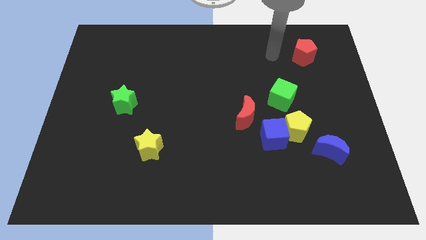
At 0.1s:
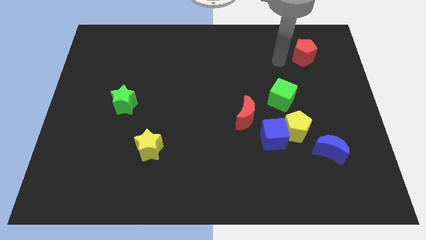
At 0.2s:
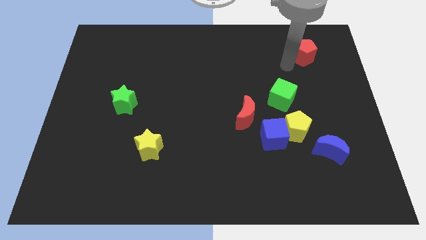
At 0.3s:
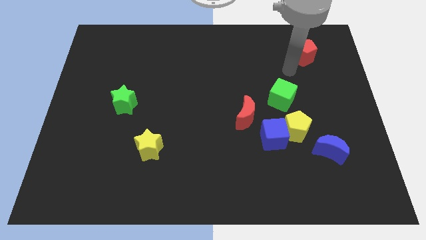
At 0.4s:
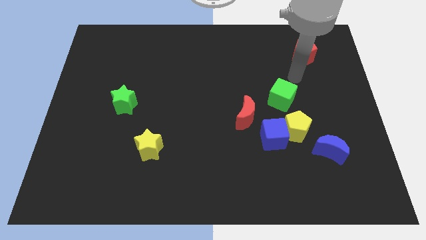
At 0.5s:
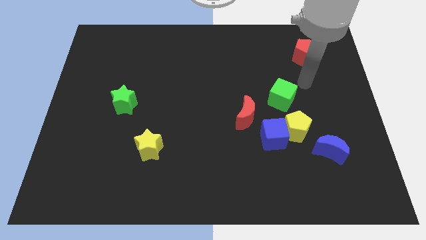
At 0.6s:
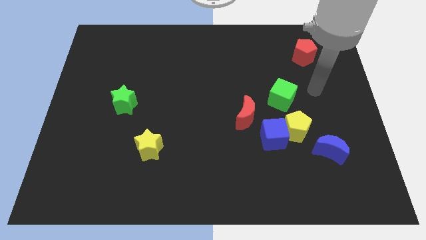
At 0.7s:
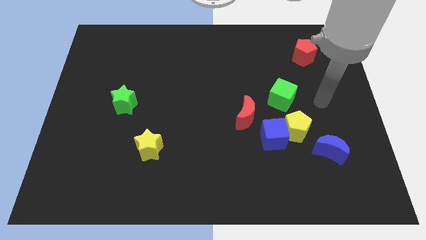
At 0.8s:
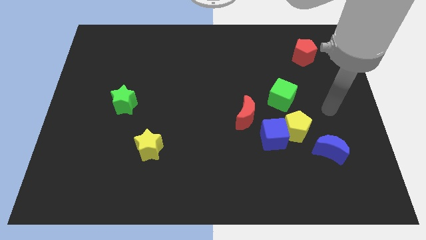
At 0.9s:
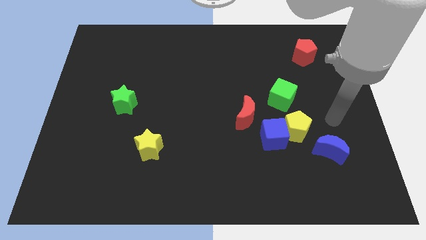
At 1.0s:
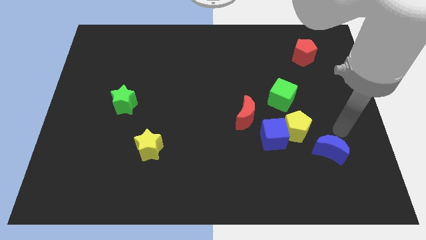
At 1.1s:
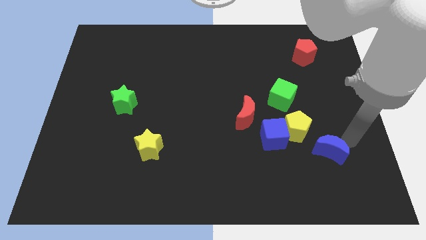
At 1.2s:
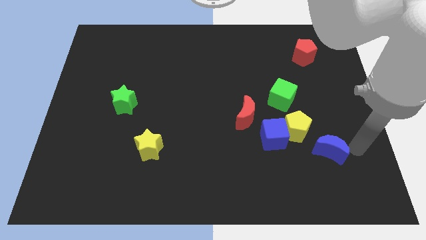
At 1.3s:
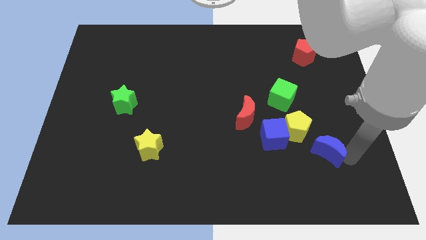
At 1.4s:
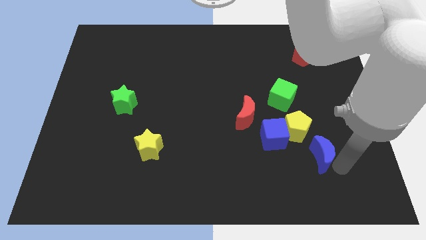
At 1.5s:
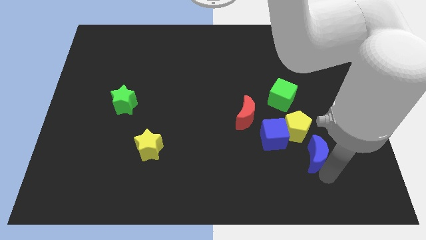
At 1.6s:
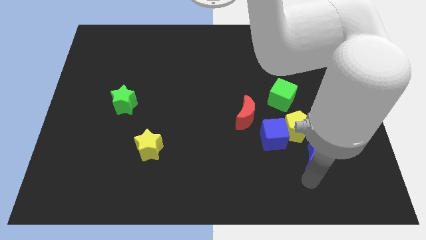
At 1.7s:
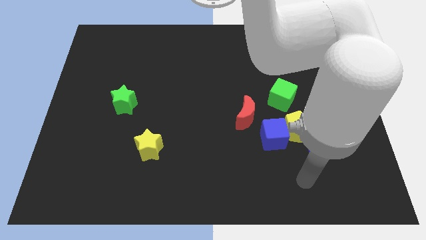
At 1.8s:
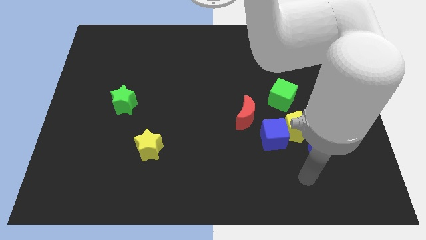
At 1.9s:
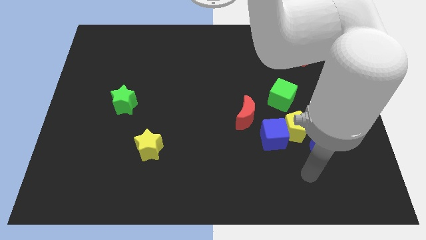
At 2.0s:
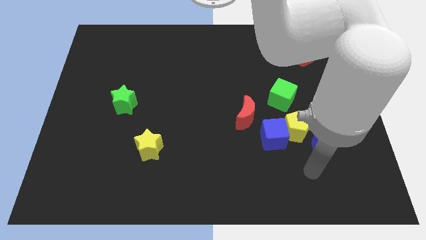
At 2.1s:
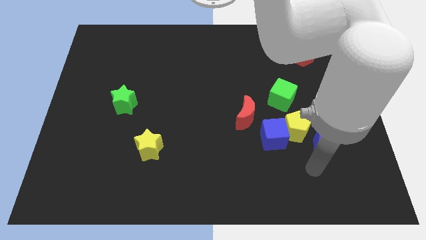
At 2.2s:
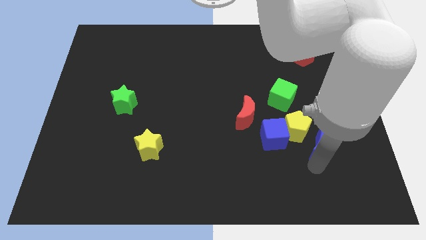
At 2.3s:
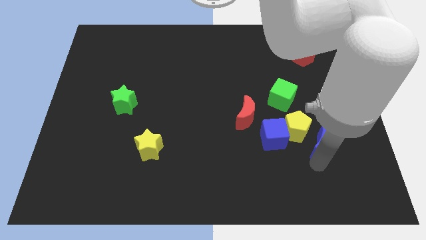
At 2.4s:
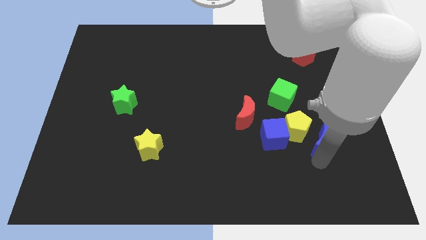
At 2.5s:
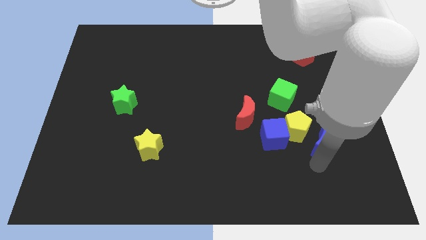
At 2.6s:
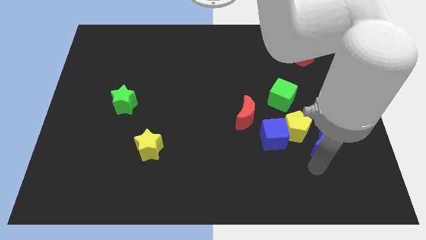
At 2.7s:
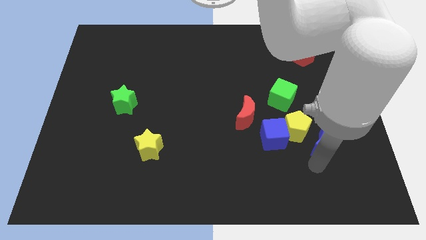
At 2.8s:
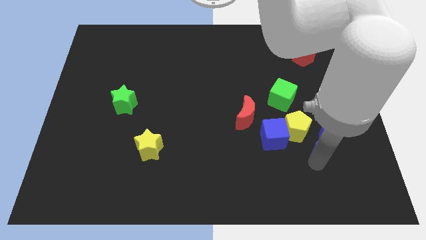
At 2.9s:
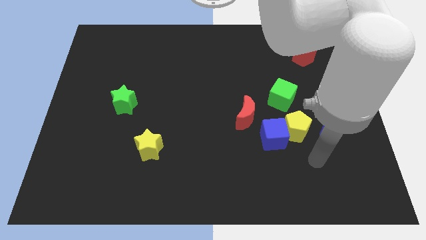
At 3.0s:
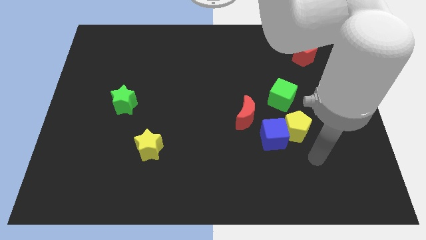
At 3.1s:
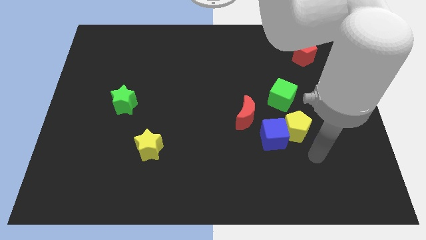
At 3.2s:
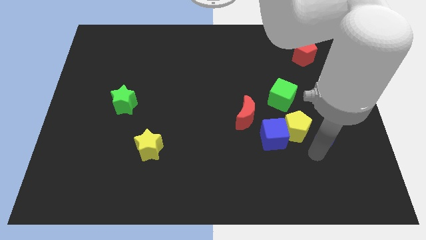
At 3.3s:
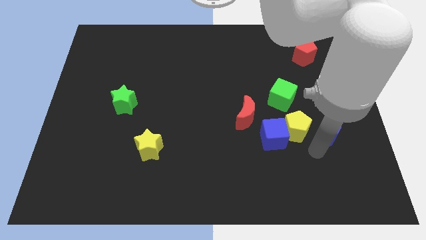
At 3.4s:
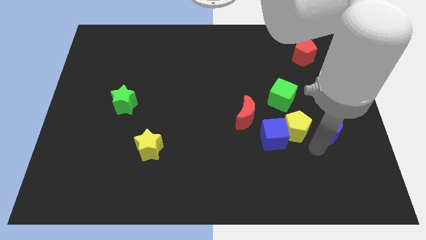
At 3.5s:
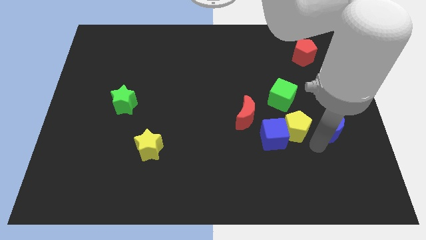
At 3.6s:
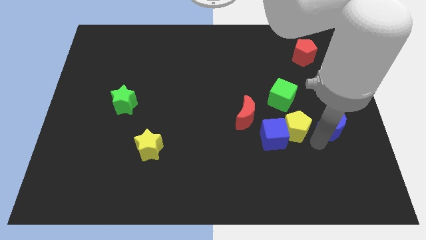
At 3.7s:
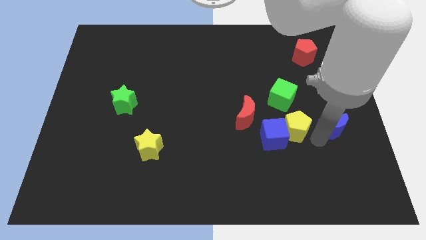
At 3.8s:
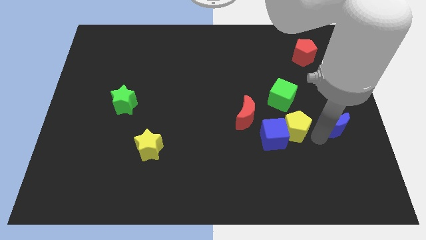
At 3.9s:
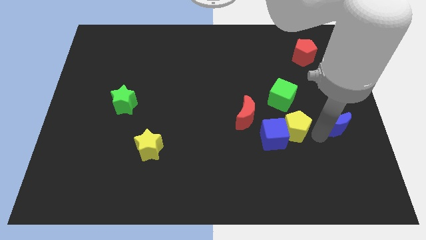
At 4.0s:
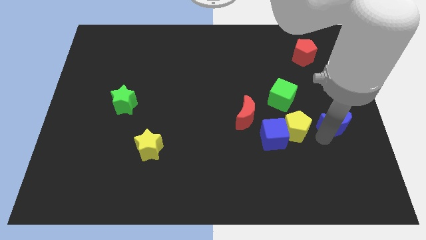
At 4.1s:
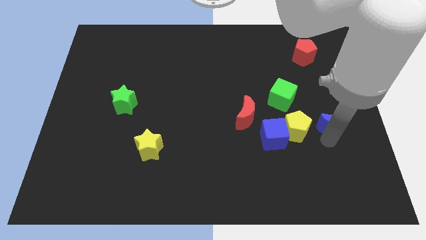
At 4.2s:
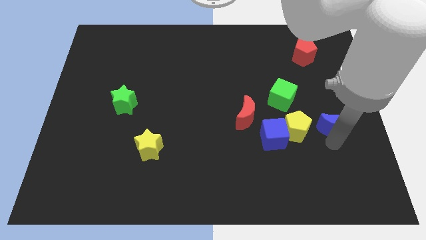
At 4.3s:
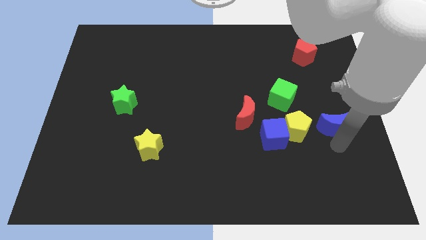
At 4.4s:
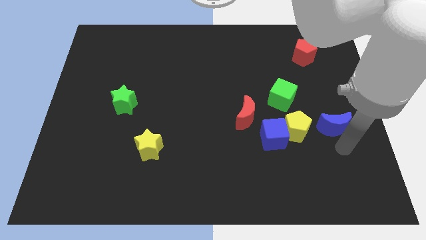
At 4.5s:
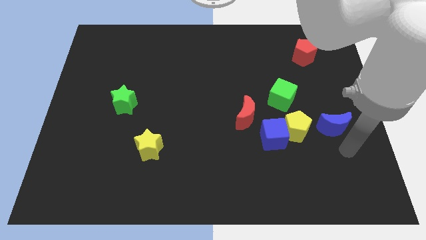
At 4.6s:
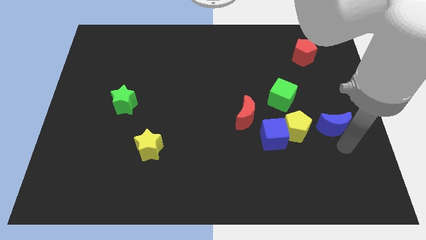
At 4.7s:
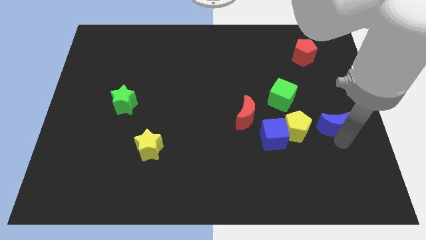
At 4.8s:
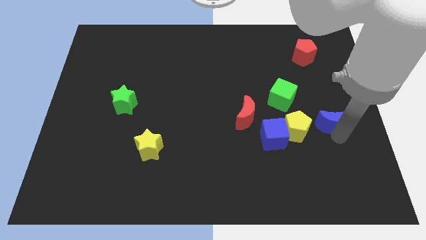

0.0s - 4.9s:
slide the blue moon up slightly

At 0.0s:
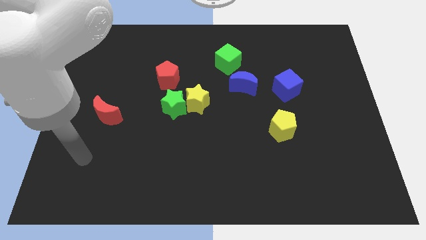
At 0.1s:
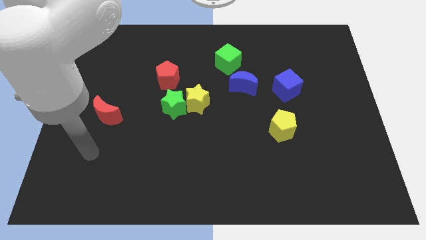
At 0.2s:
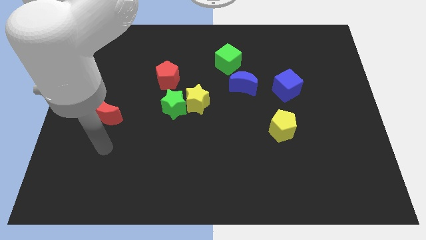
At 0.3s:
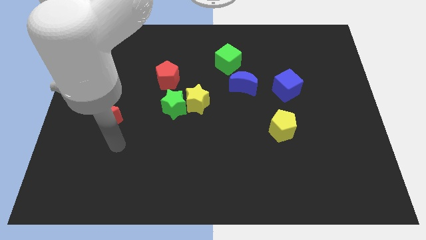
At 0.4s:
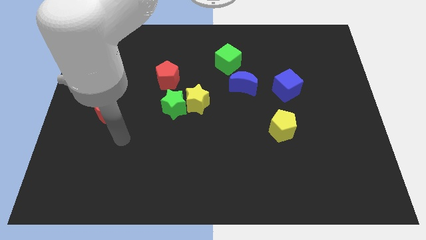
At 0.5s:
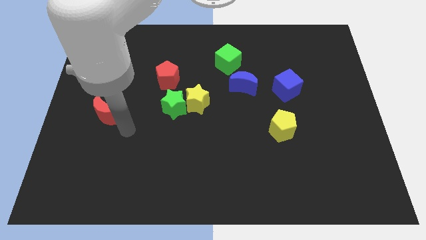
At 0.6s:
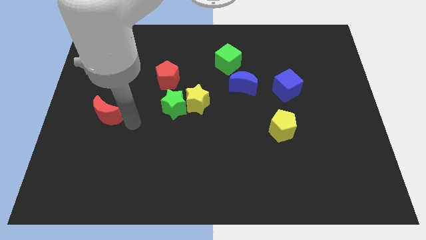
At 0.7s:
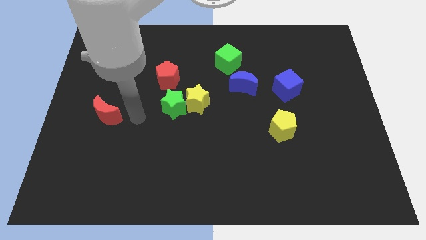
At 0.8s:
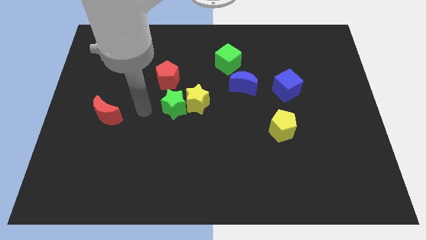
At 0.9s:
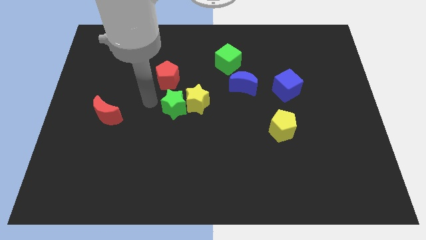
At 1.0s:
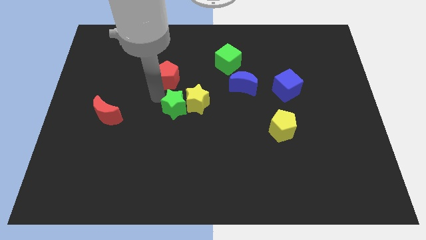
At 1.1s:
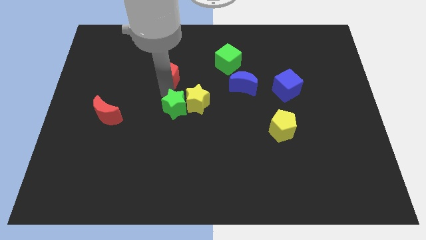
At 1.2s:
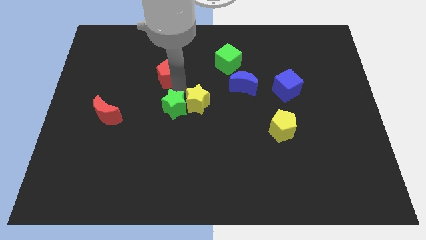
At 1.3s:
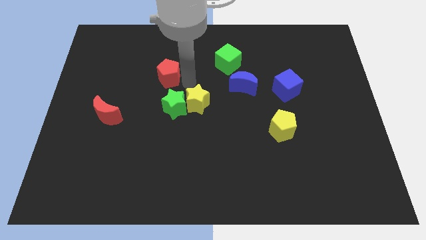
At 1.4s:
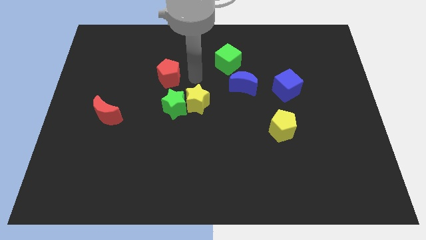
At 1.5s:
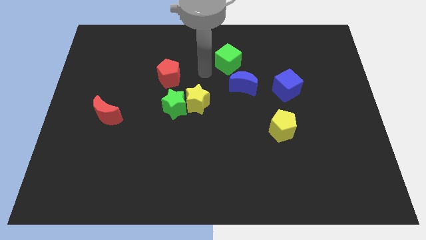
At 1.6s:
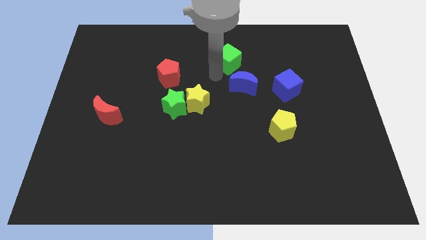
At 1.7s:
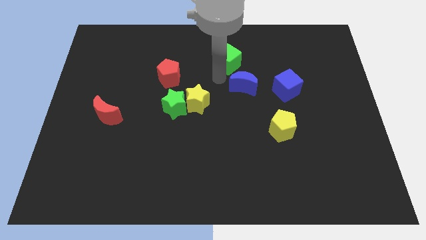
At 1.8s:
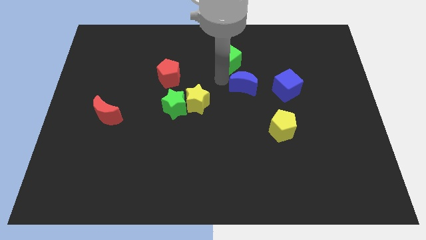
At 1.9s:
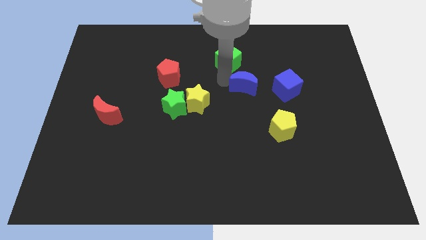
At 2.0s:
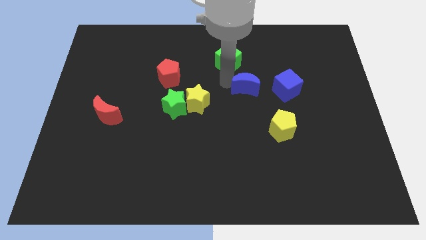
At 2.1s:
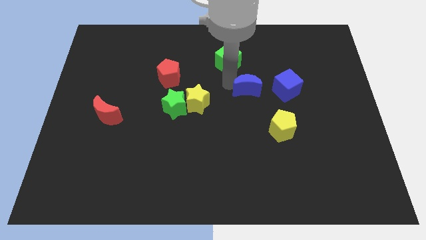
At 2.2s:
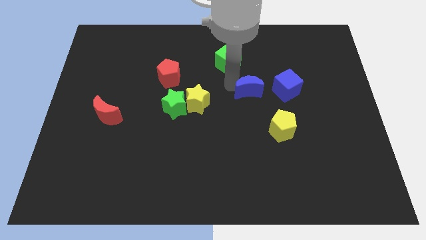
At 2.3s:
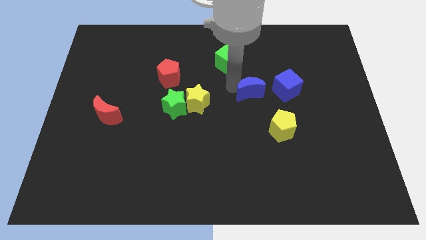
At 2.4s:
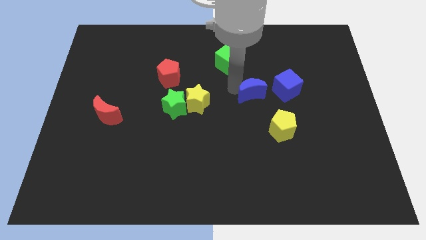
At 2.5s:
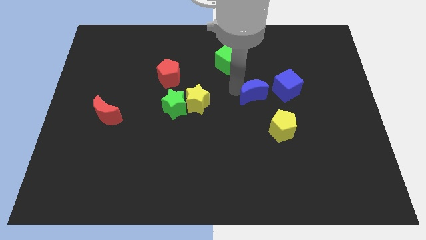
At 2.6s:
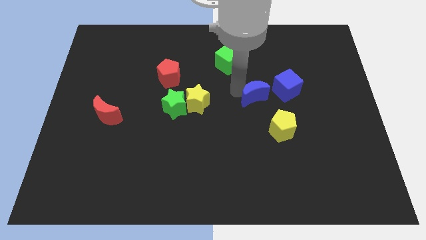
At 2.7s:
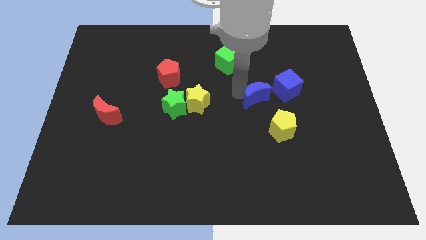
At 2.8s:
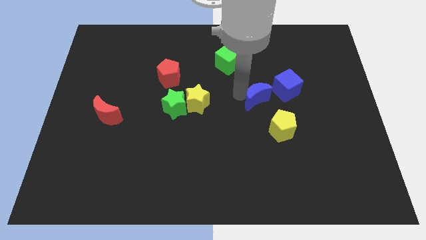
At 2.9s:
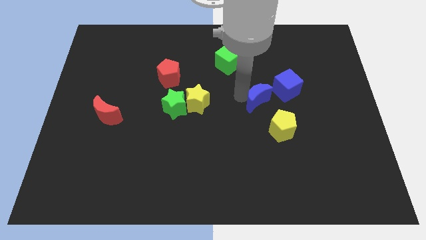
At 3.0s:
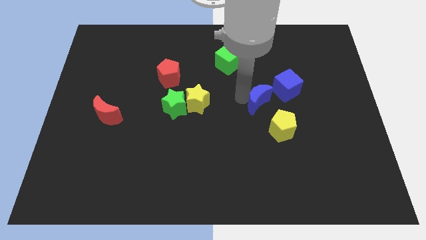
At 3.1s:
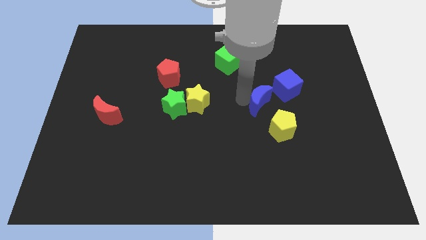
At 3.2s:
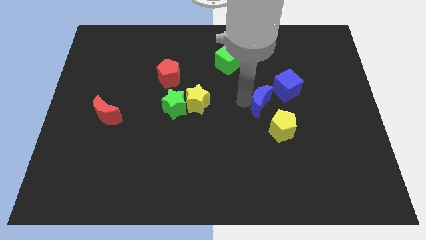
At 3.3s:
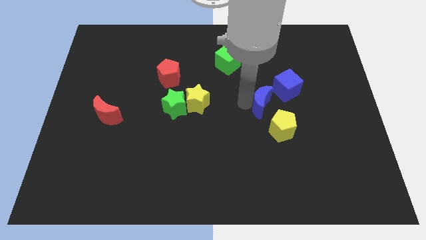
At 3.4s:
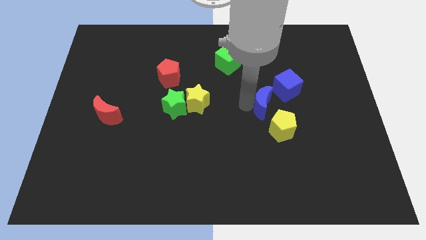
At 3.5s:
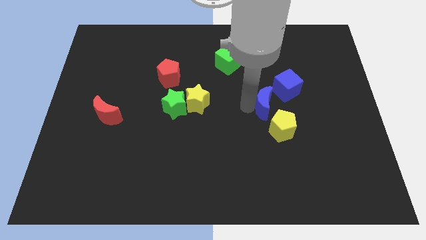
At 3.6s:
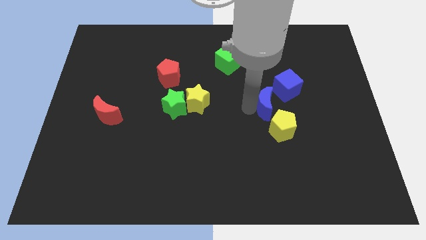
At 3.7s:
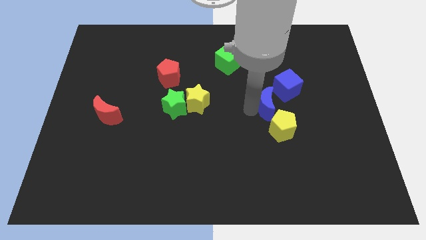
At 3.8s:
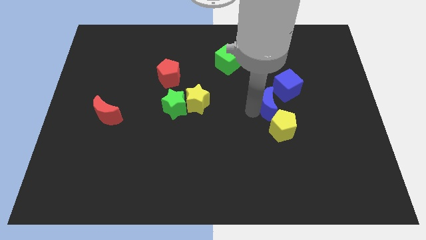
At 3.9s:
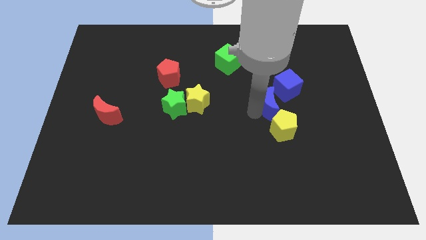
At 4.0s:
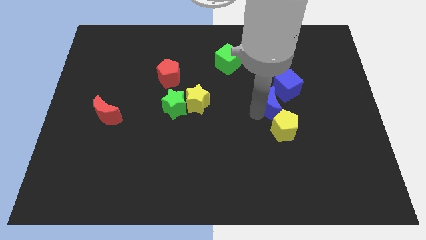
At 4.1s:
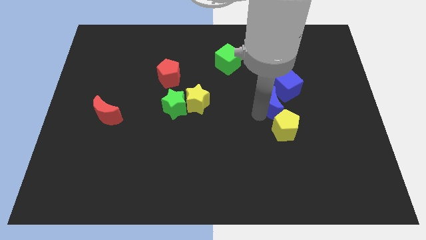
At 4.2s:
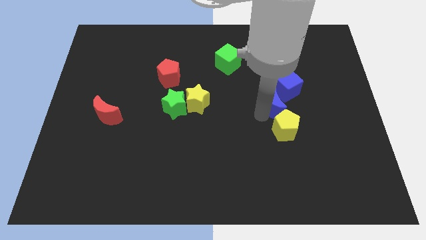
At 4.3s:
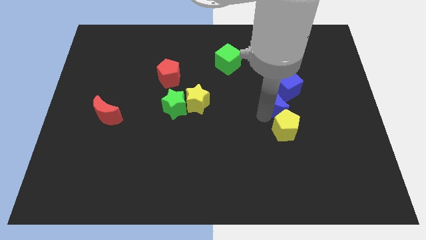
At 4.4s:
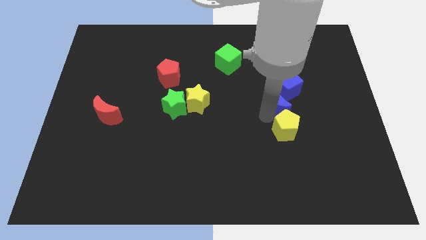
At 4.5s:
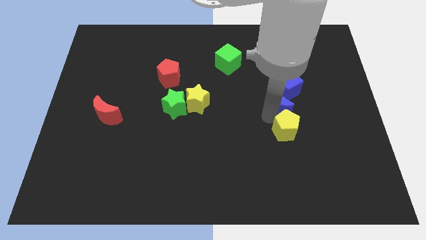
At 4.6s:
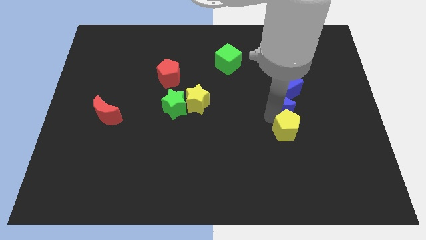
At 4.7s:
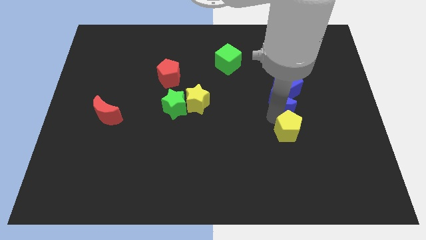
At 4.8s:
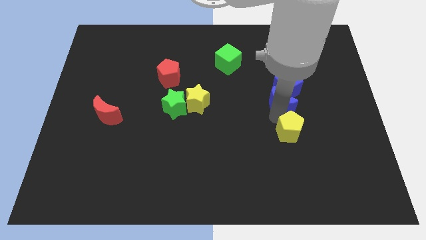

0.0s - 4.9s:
move the blue moon right somewhat
